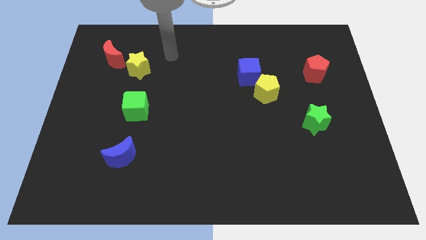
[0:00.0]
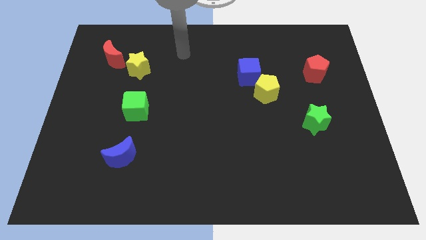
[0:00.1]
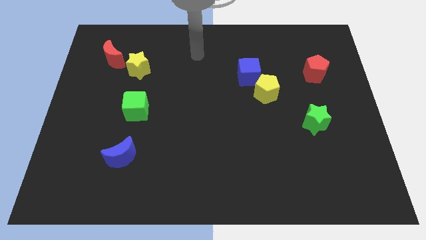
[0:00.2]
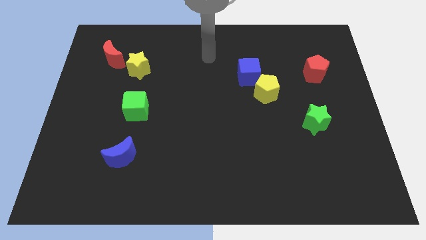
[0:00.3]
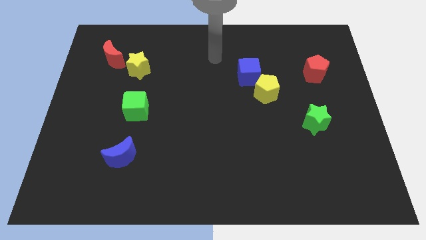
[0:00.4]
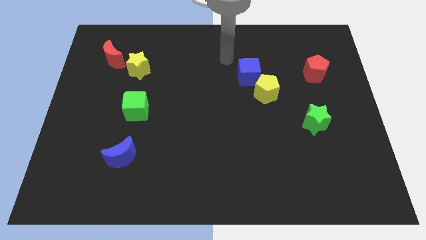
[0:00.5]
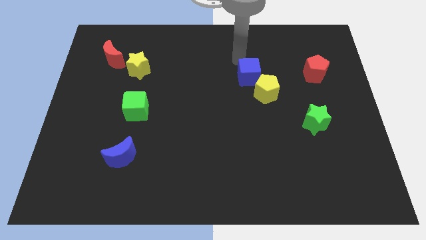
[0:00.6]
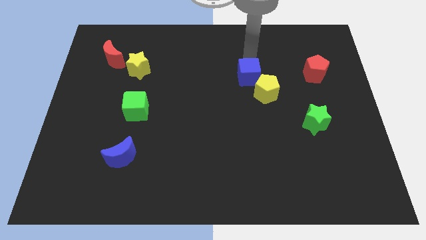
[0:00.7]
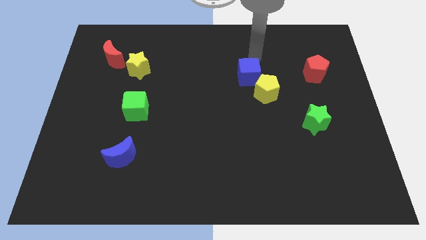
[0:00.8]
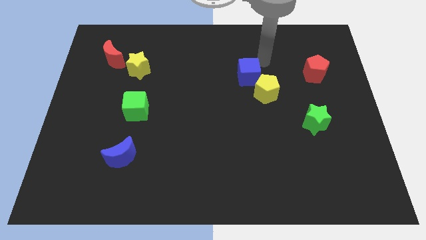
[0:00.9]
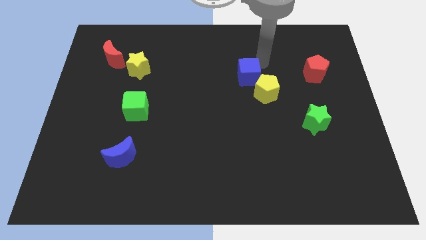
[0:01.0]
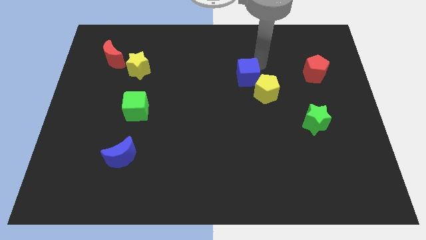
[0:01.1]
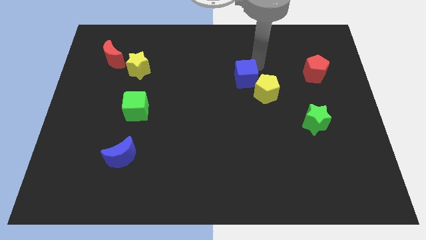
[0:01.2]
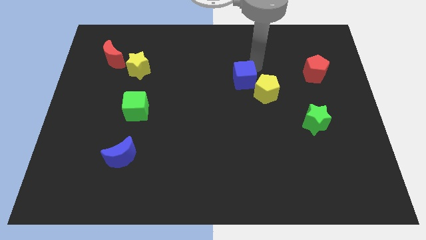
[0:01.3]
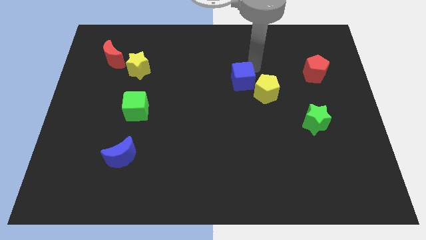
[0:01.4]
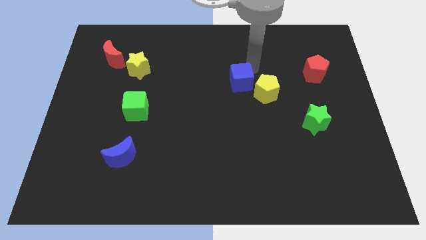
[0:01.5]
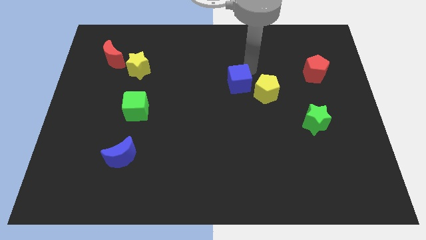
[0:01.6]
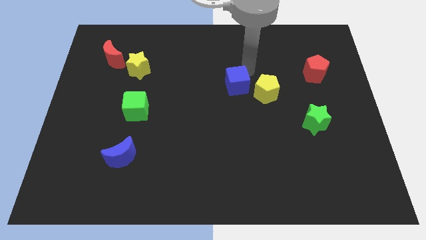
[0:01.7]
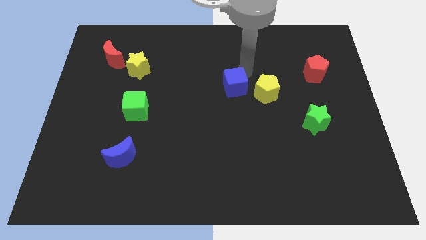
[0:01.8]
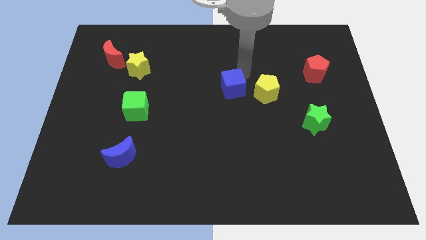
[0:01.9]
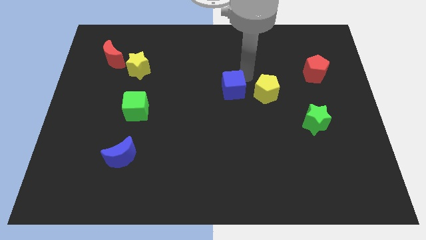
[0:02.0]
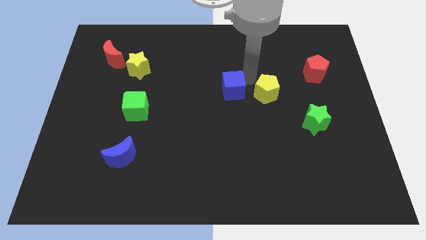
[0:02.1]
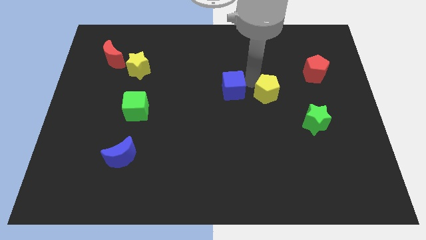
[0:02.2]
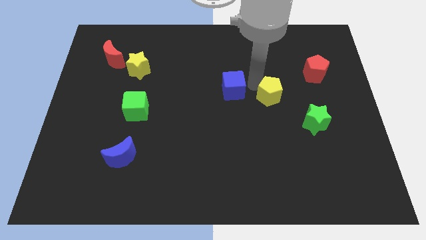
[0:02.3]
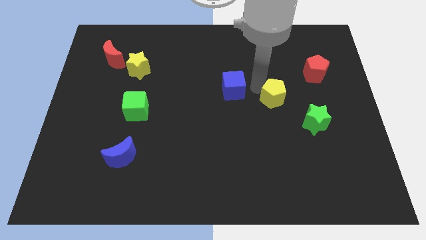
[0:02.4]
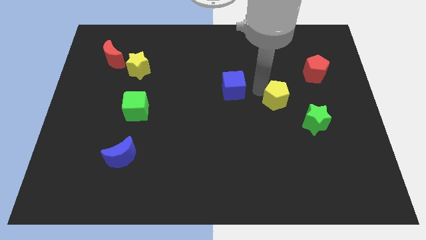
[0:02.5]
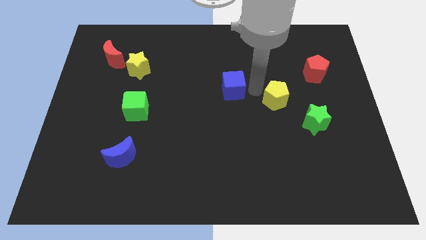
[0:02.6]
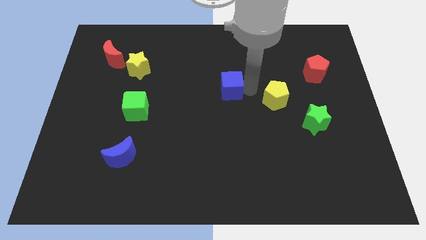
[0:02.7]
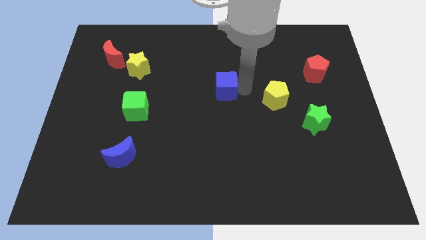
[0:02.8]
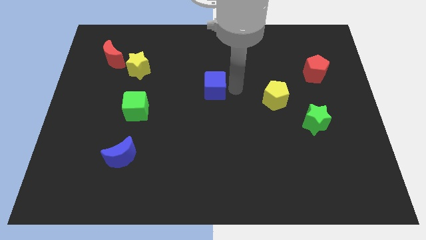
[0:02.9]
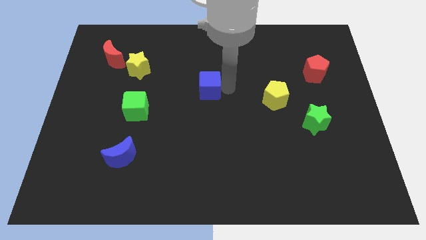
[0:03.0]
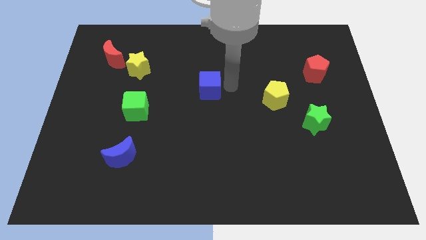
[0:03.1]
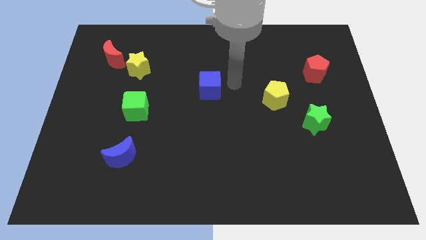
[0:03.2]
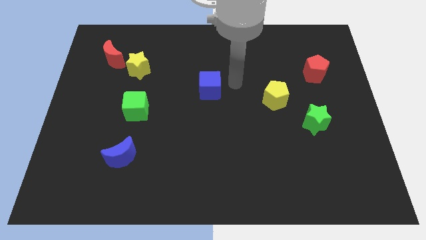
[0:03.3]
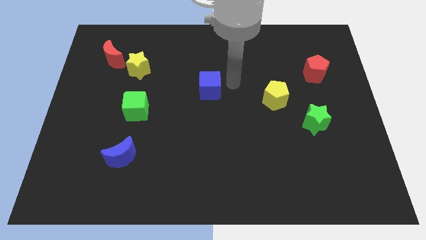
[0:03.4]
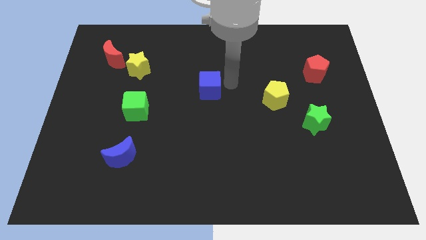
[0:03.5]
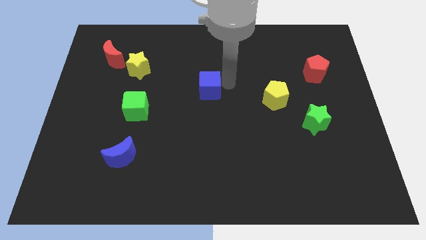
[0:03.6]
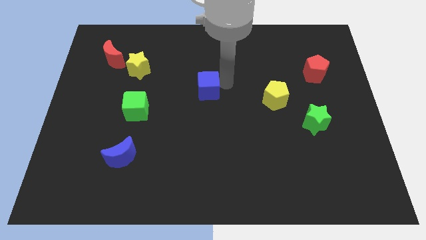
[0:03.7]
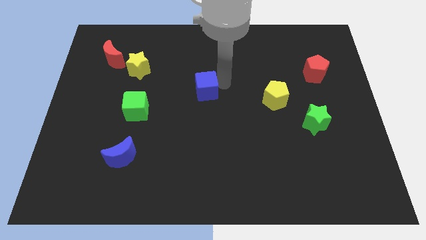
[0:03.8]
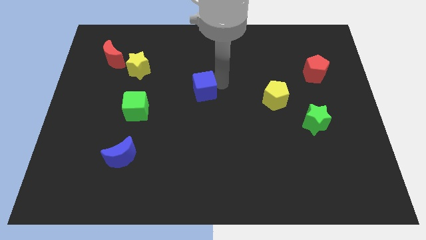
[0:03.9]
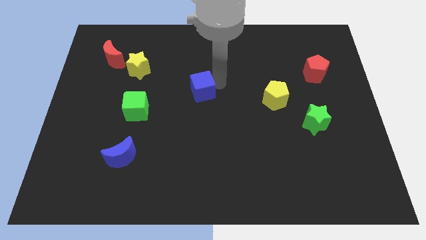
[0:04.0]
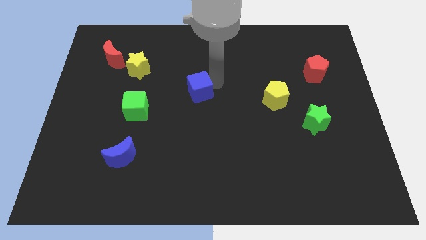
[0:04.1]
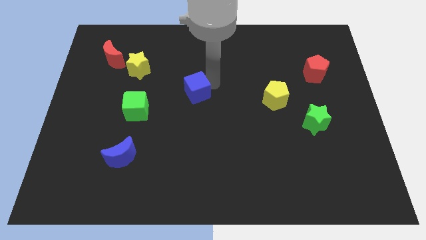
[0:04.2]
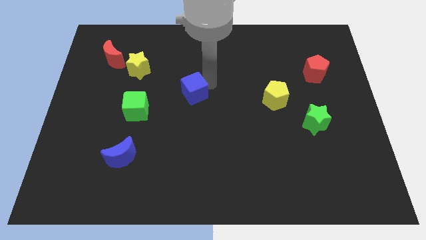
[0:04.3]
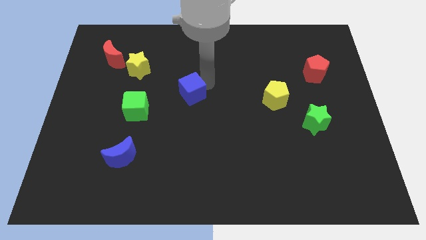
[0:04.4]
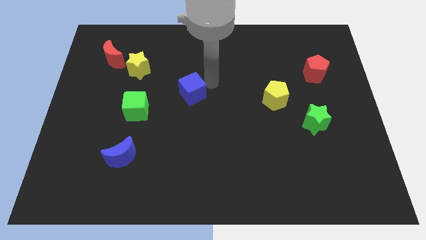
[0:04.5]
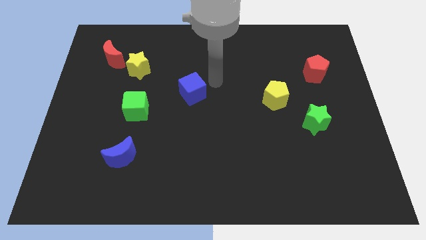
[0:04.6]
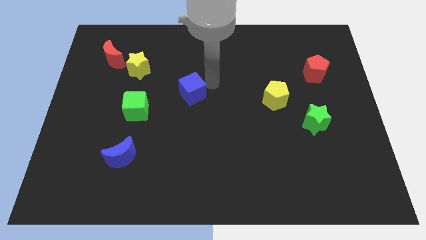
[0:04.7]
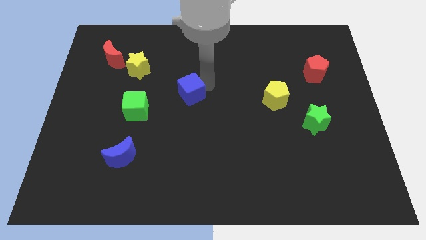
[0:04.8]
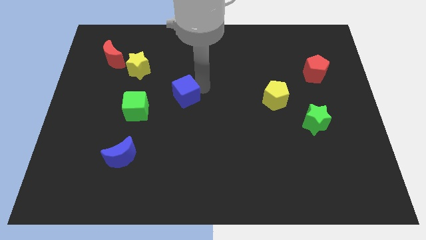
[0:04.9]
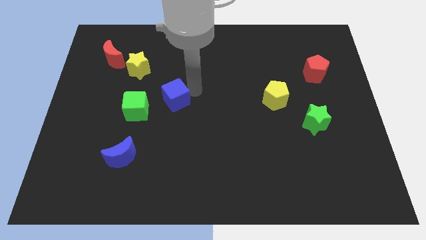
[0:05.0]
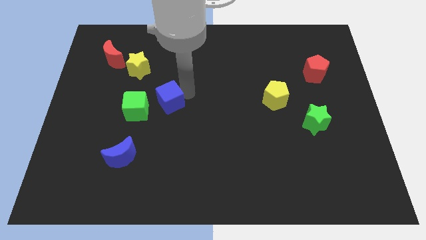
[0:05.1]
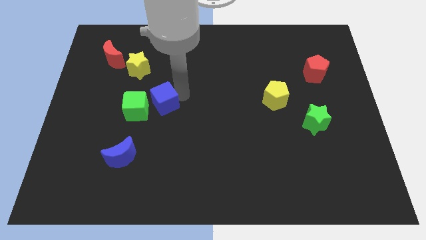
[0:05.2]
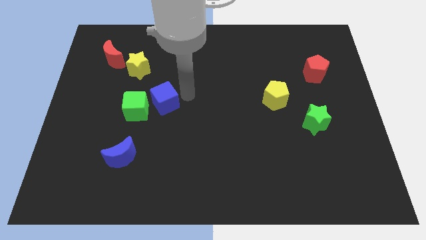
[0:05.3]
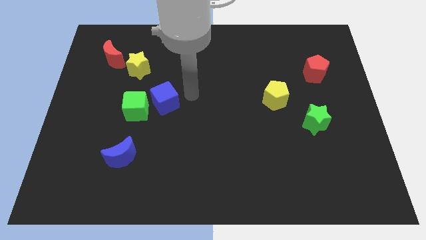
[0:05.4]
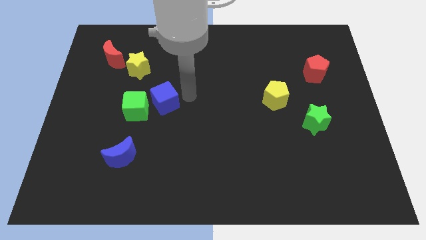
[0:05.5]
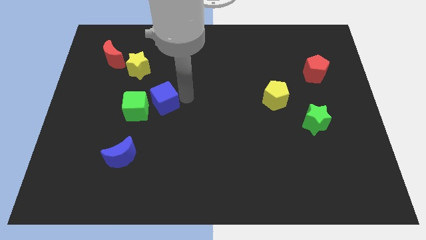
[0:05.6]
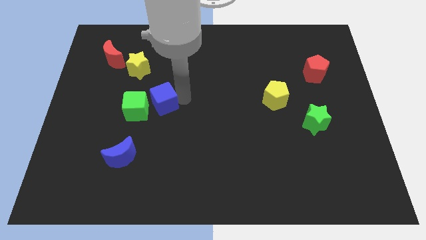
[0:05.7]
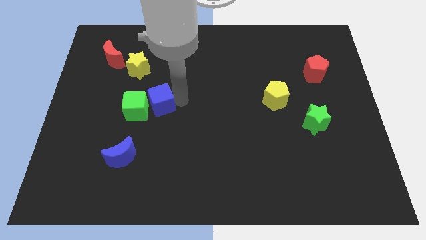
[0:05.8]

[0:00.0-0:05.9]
move the blue cube next to the green cube

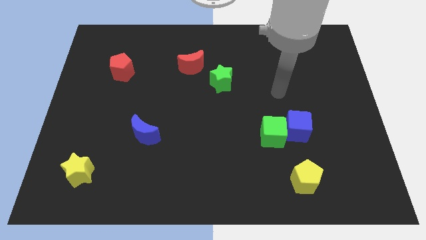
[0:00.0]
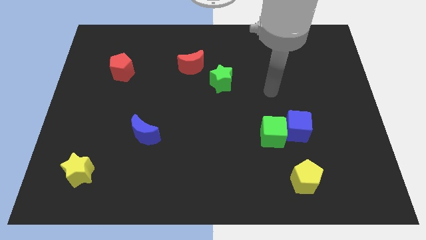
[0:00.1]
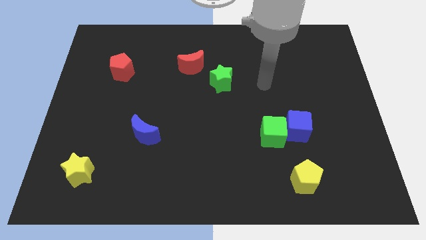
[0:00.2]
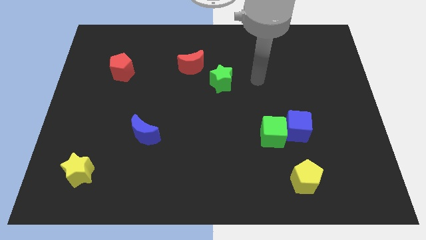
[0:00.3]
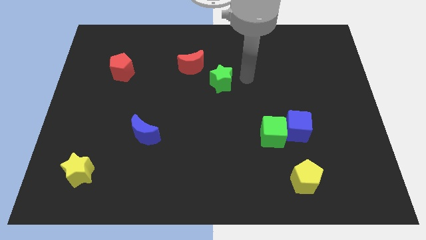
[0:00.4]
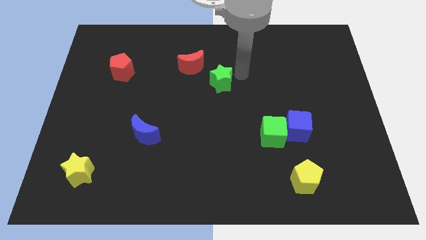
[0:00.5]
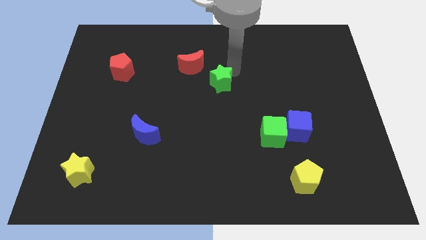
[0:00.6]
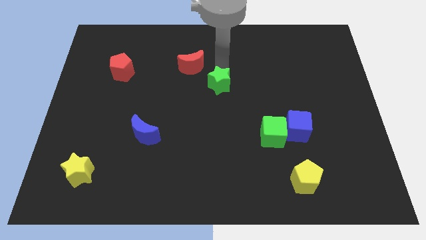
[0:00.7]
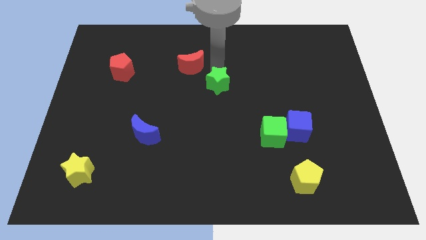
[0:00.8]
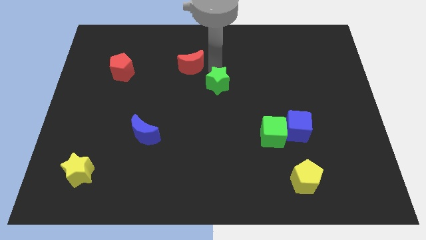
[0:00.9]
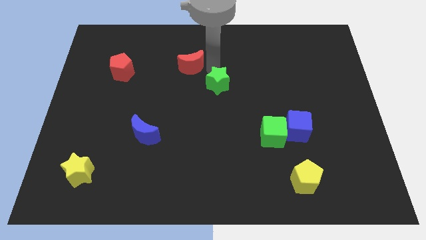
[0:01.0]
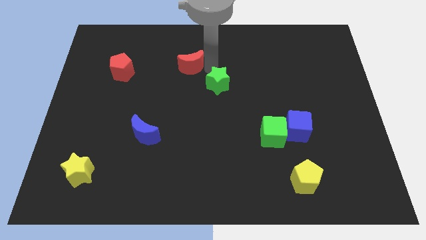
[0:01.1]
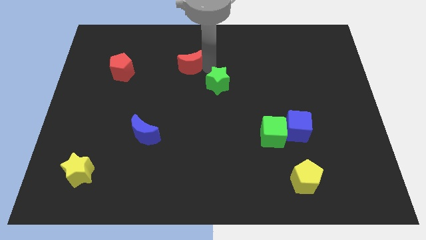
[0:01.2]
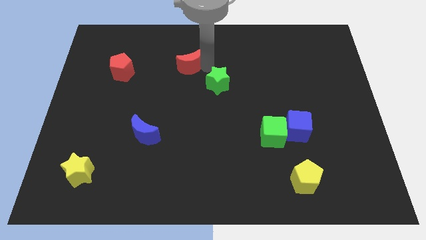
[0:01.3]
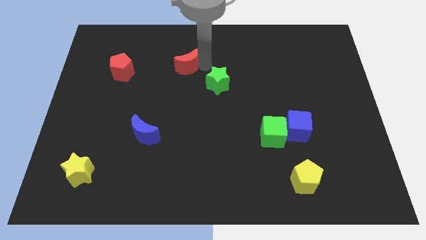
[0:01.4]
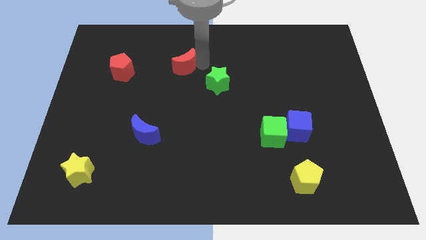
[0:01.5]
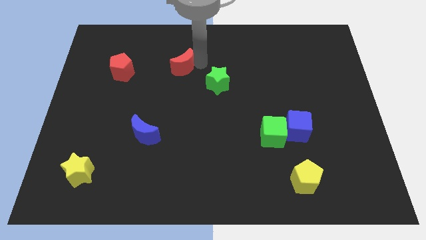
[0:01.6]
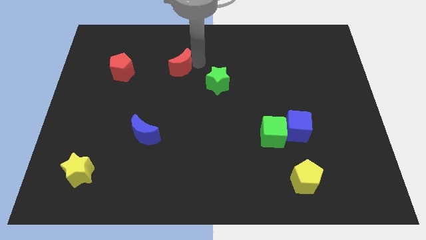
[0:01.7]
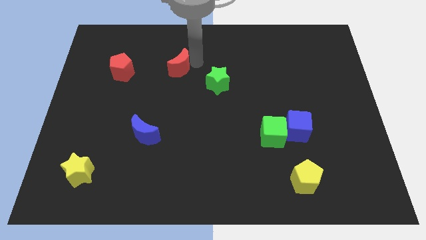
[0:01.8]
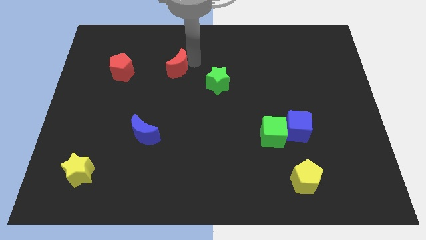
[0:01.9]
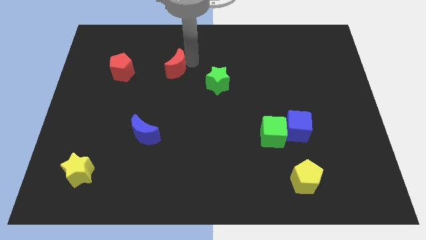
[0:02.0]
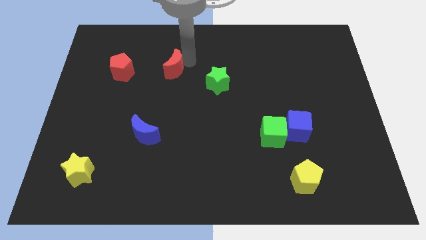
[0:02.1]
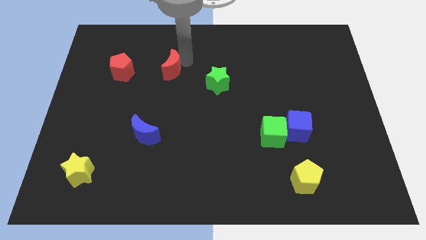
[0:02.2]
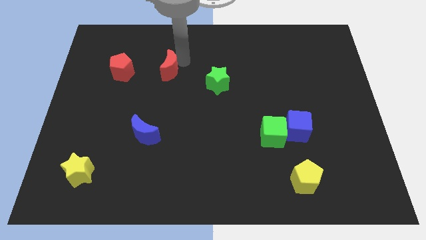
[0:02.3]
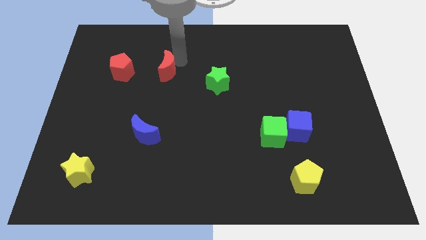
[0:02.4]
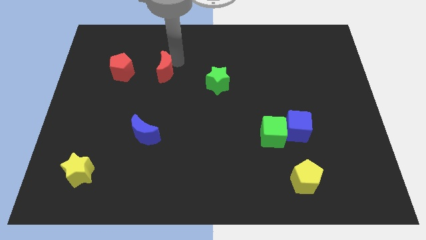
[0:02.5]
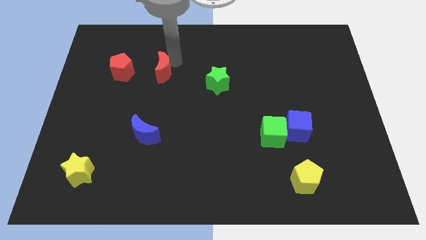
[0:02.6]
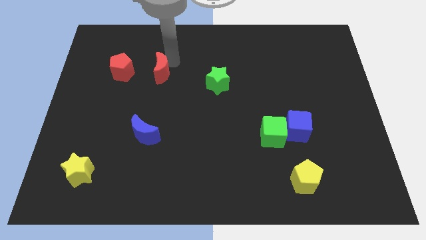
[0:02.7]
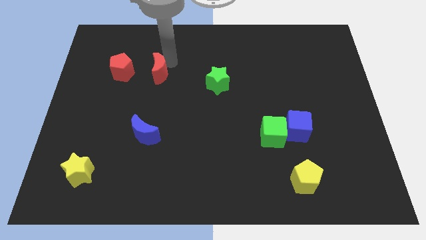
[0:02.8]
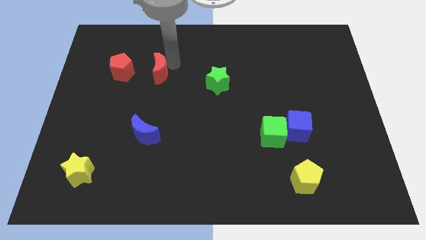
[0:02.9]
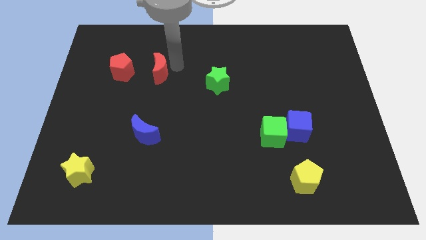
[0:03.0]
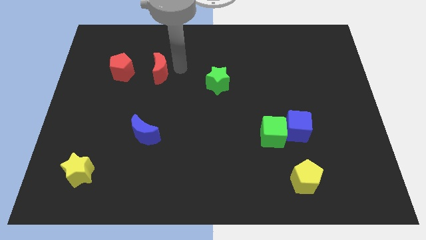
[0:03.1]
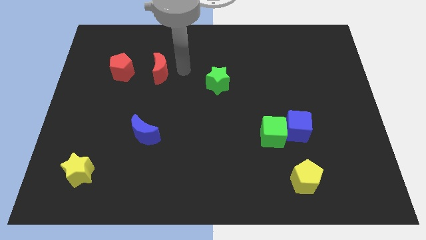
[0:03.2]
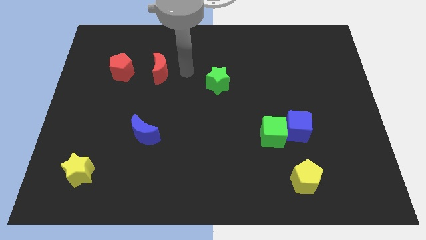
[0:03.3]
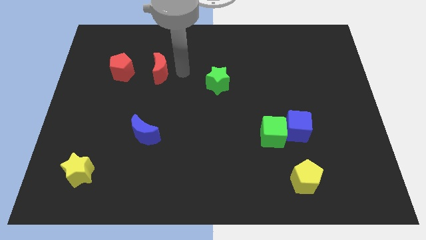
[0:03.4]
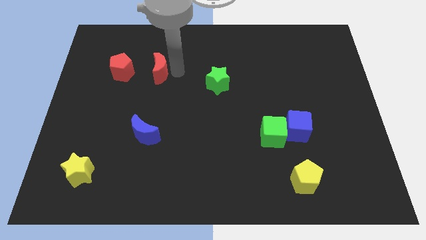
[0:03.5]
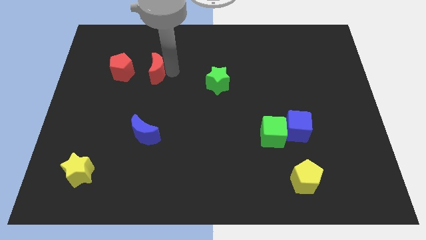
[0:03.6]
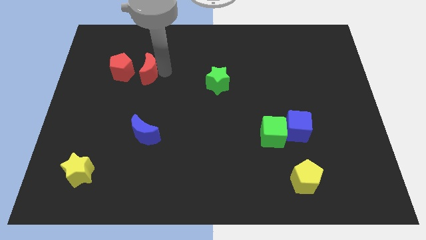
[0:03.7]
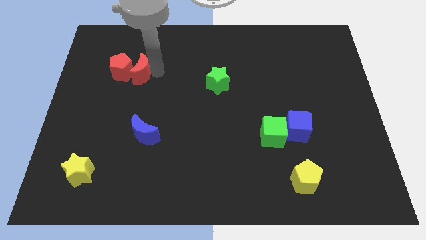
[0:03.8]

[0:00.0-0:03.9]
put the red moon to the red pentagon
